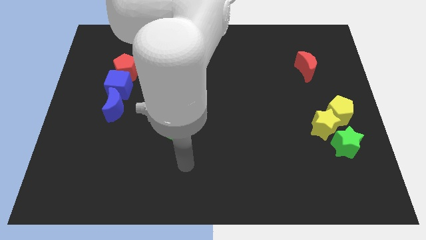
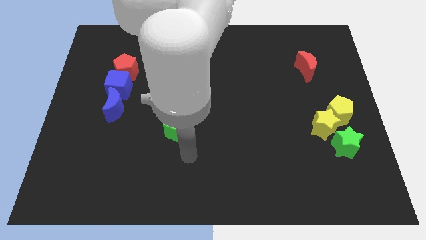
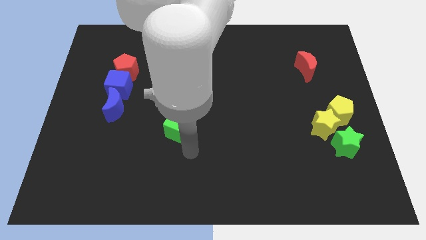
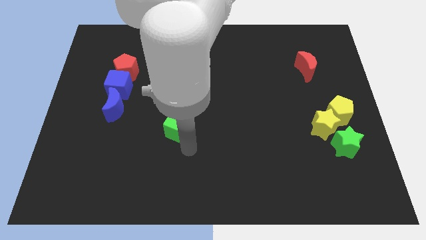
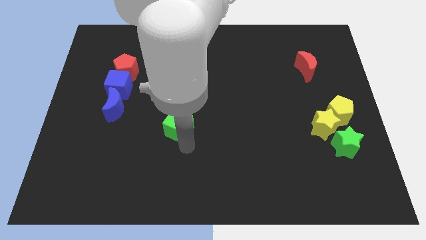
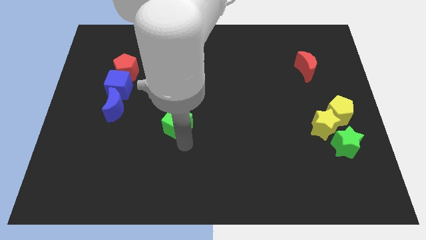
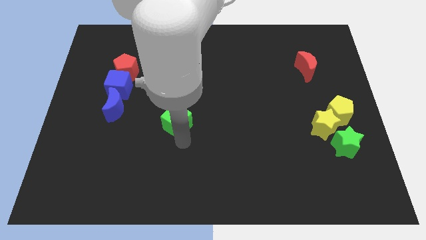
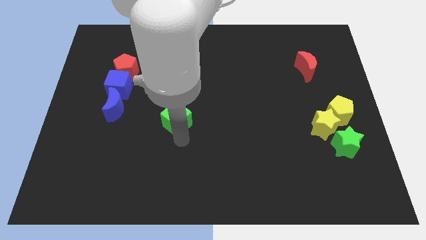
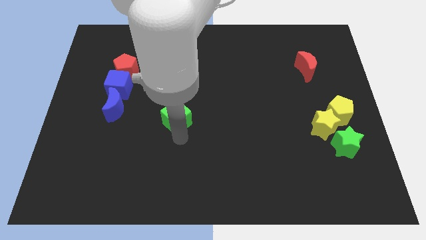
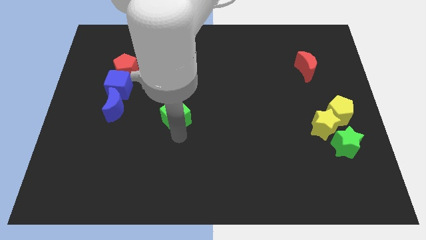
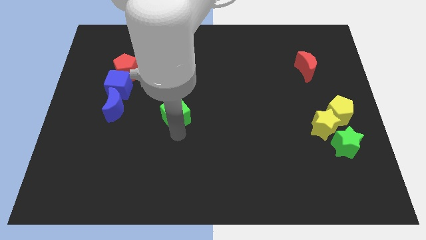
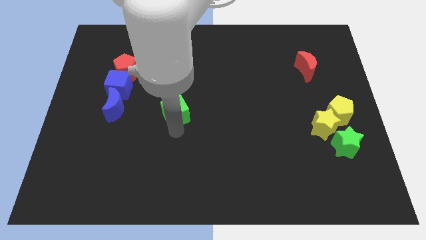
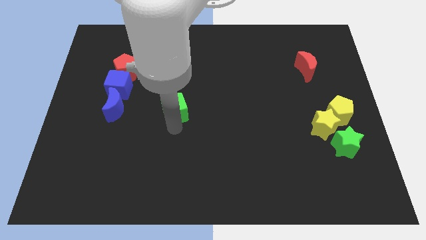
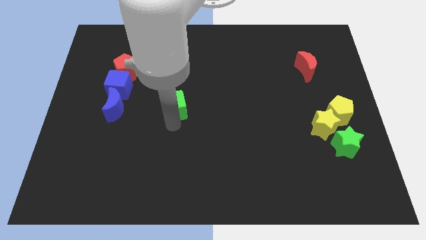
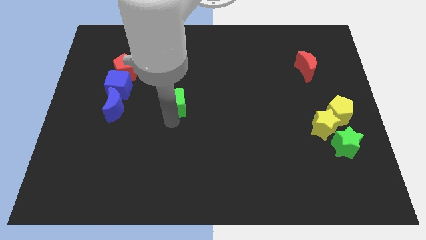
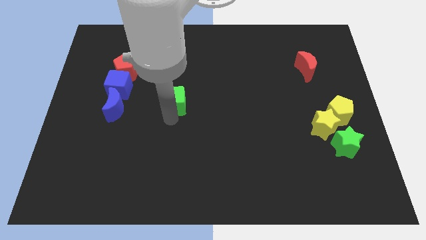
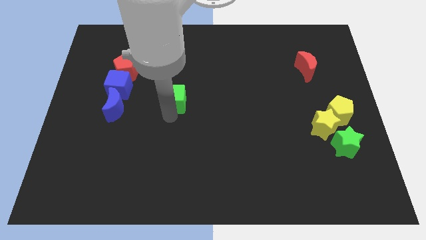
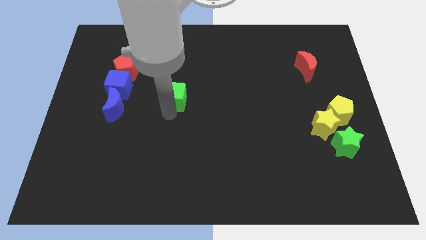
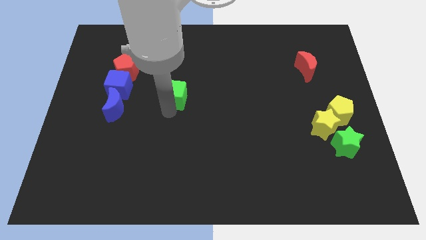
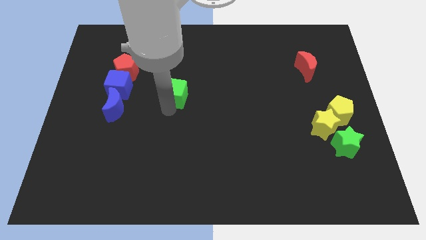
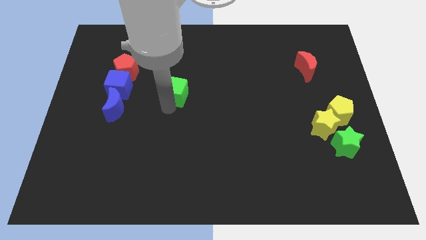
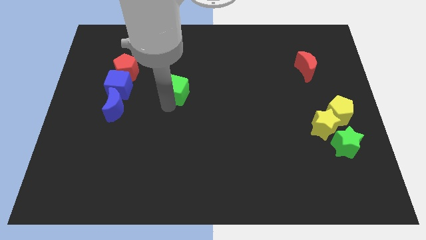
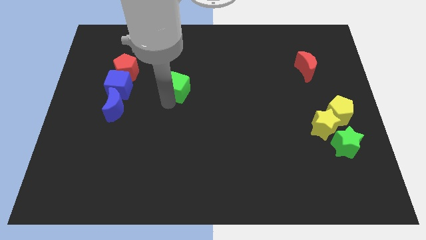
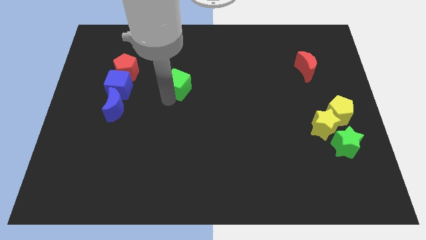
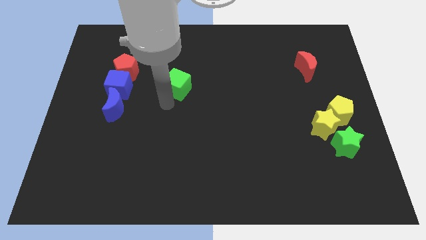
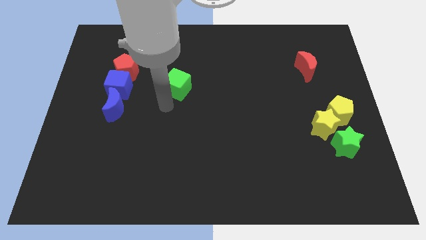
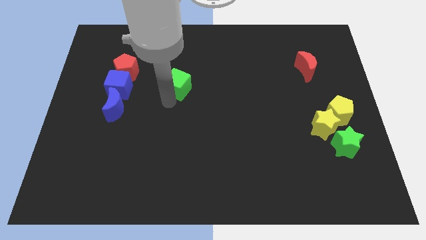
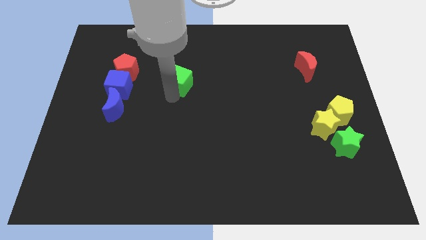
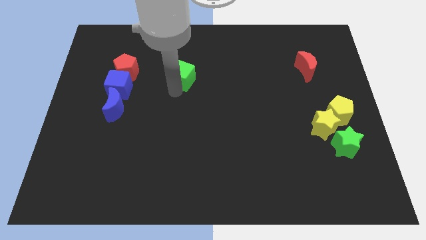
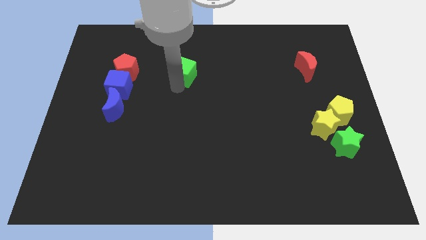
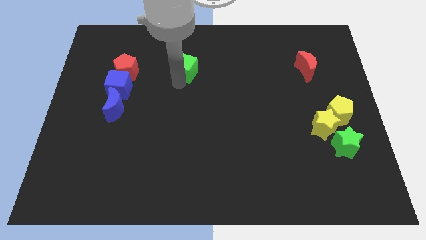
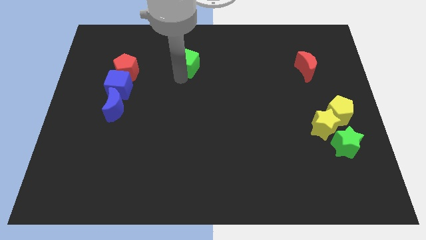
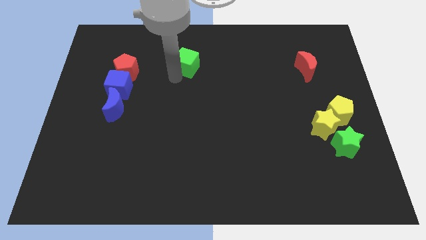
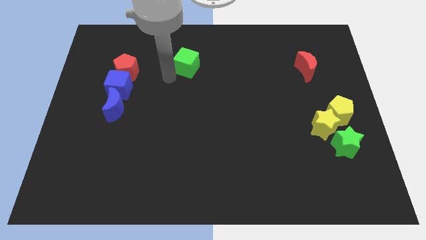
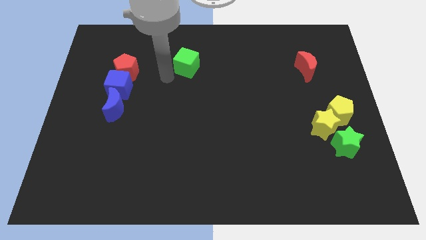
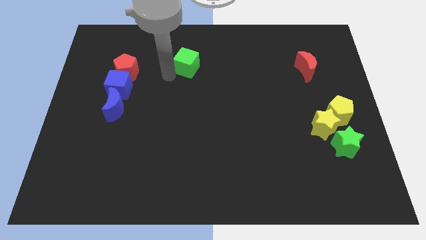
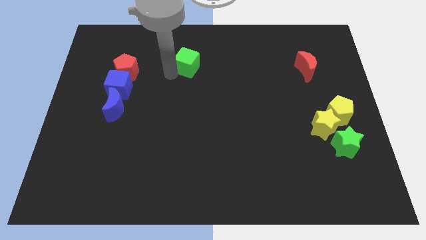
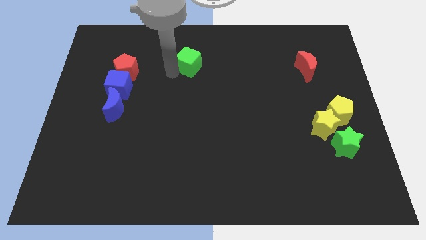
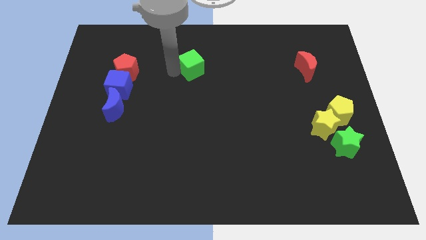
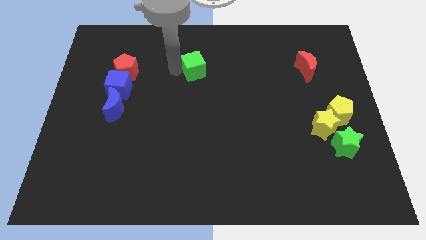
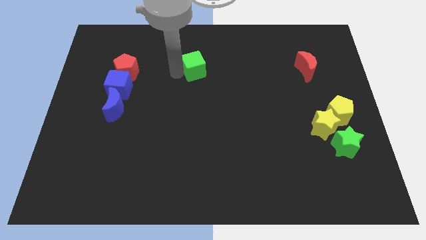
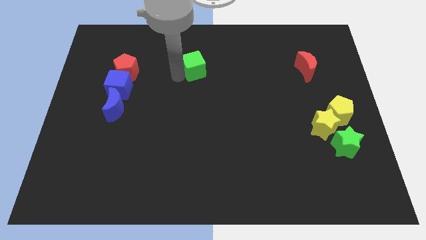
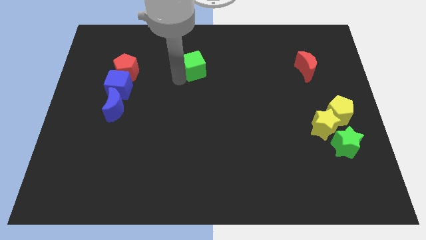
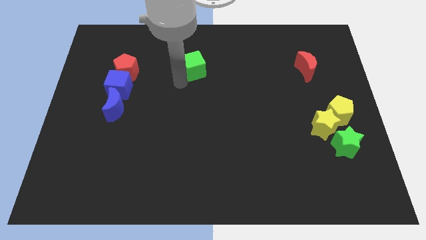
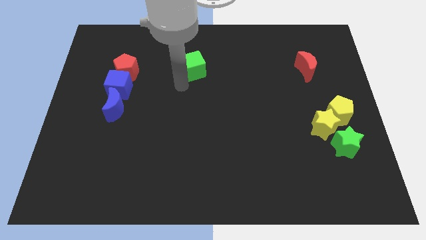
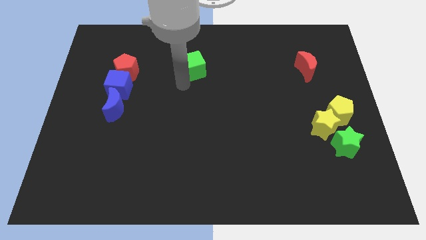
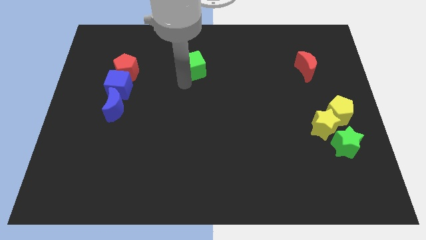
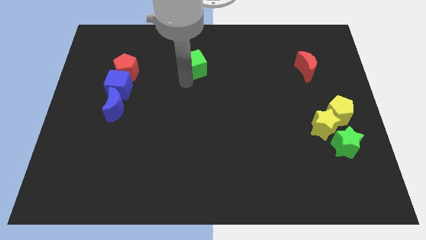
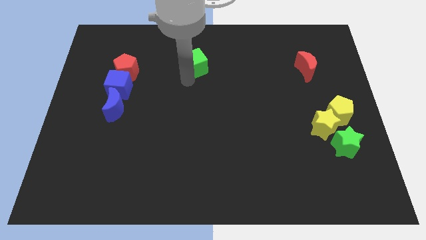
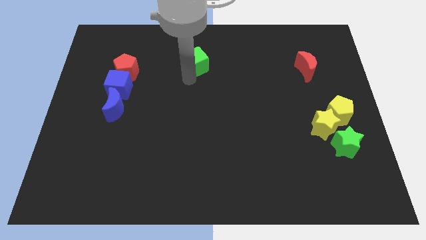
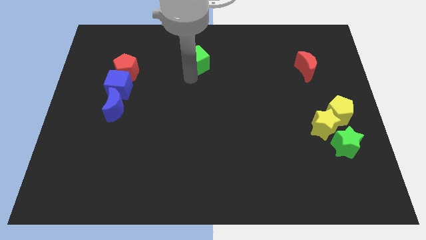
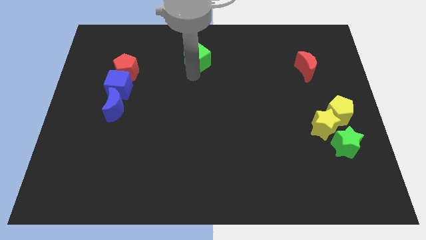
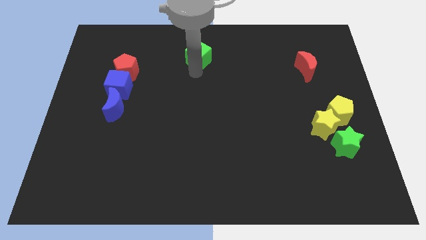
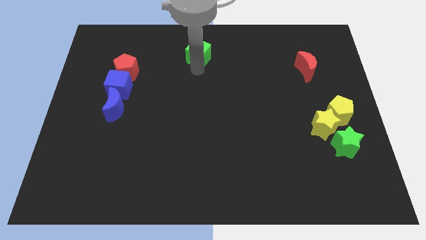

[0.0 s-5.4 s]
put the green cube to the top side

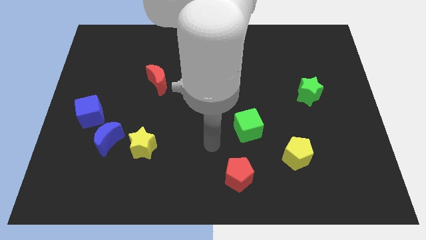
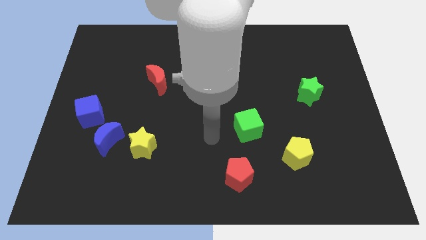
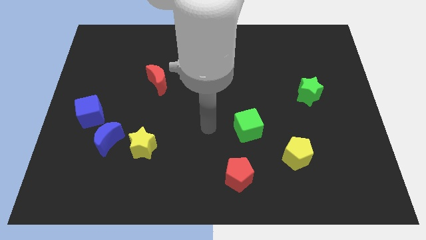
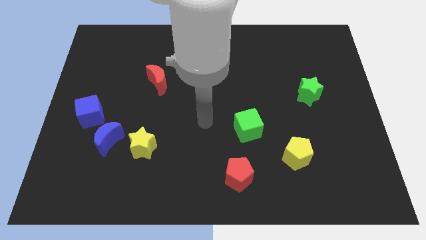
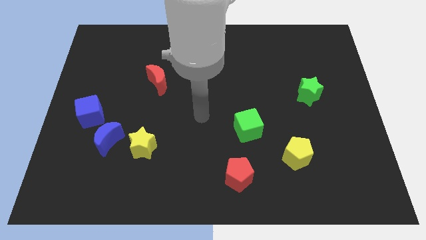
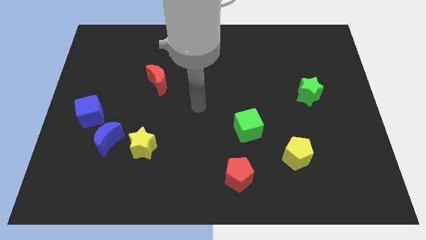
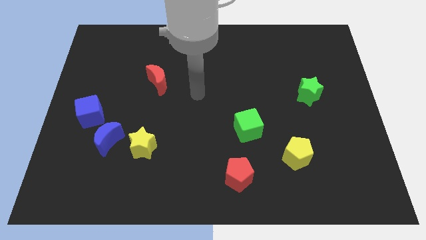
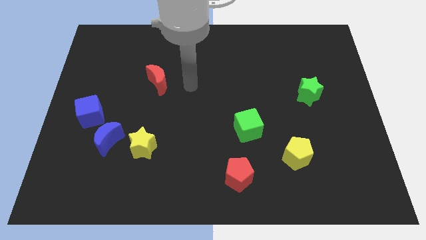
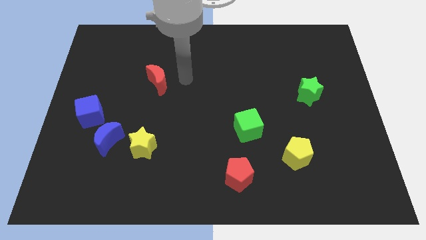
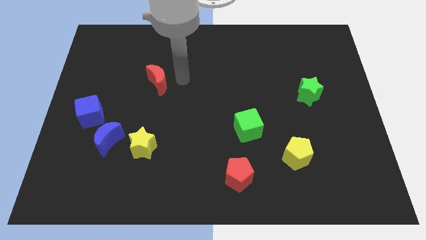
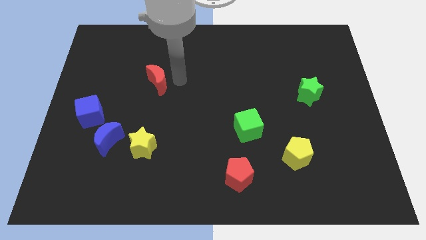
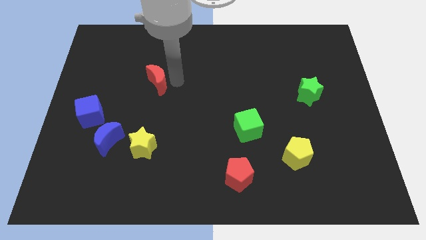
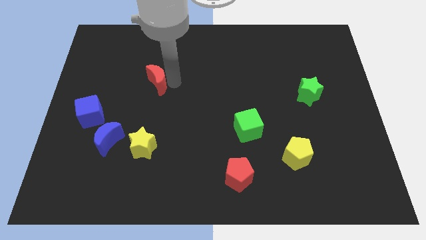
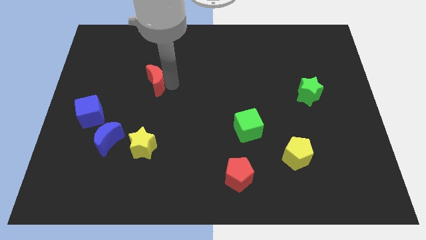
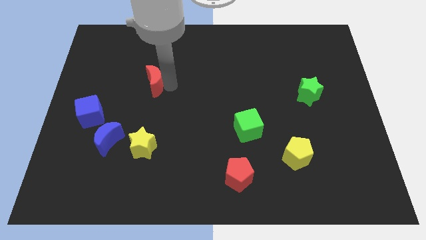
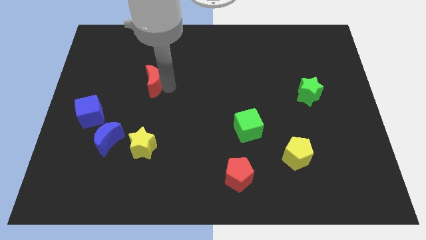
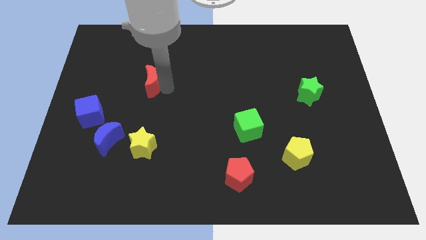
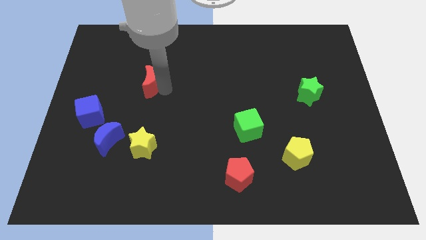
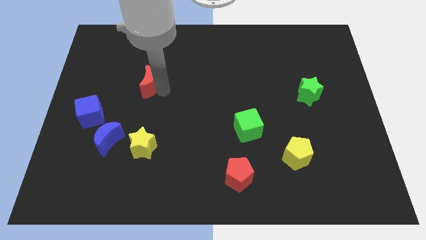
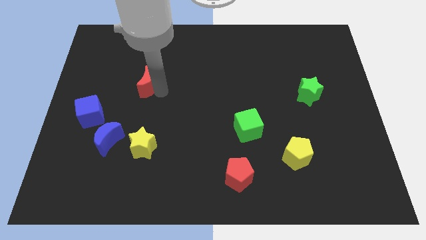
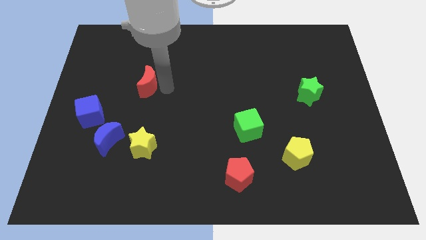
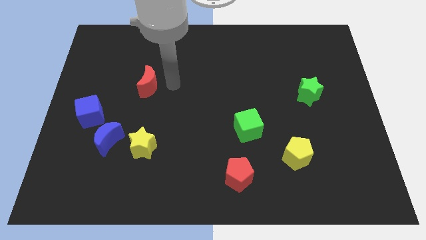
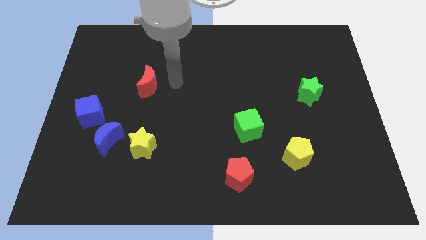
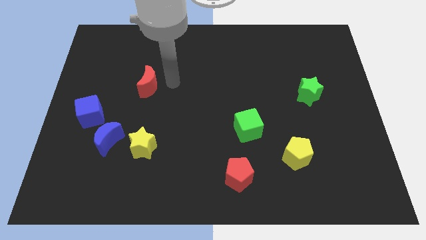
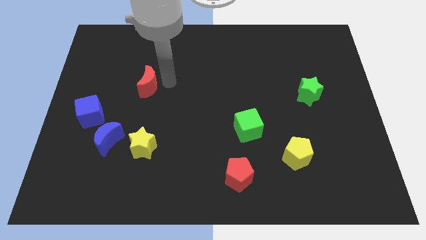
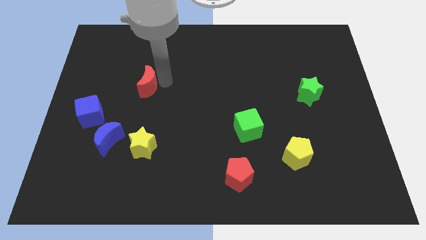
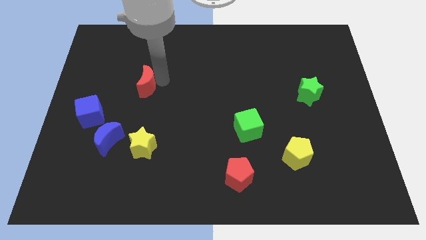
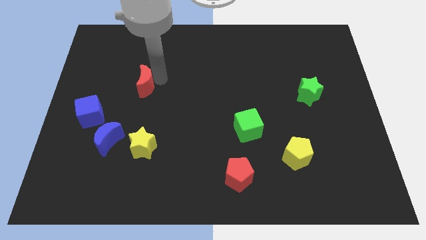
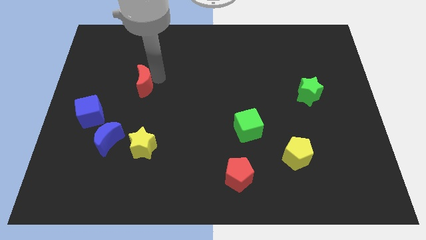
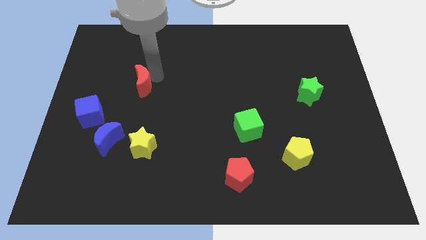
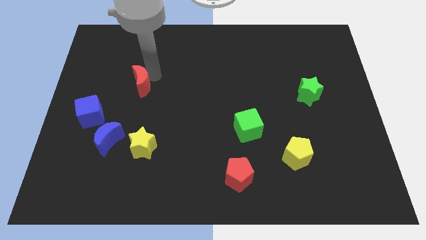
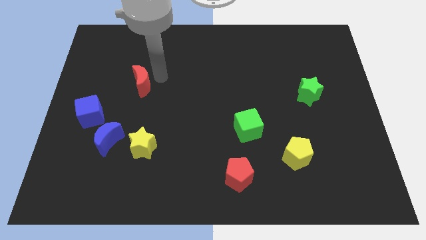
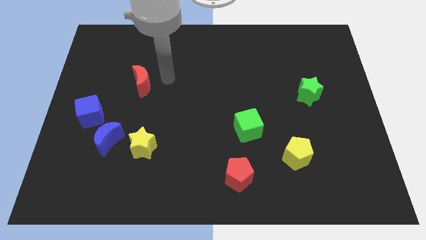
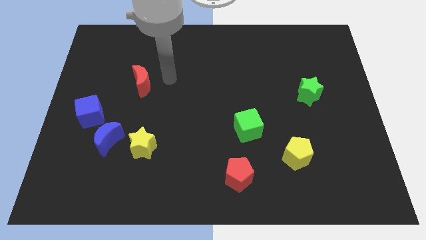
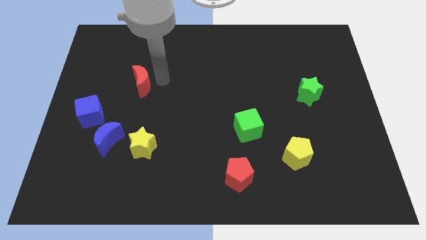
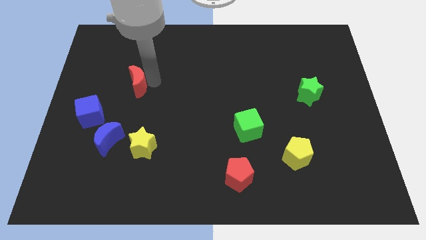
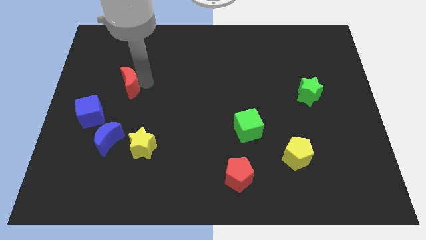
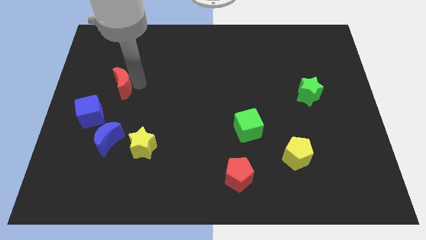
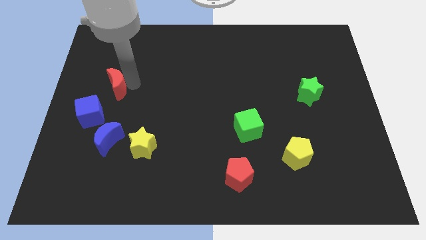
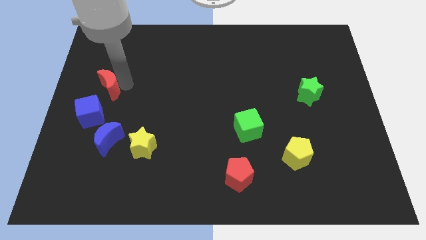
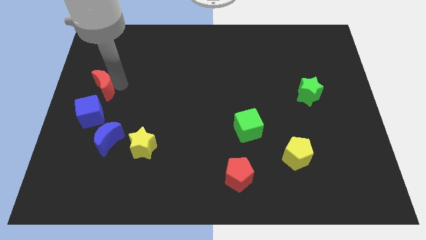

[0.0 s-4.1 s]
put the red moon to the left side
